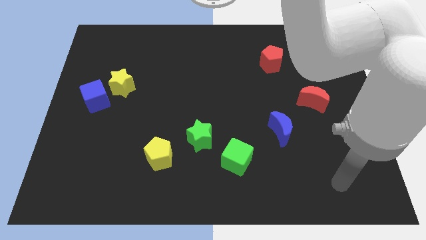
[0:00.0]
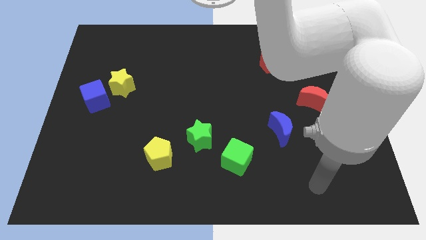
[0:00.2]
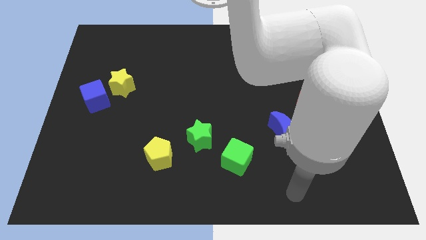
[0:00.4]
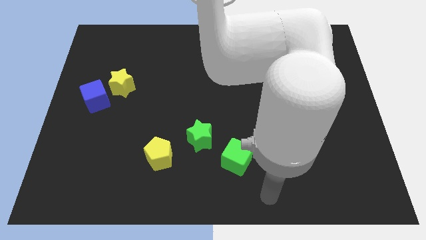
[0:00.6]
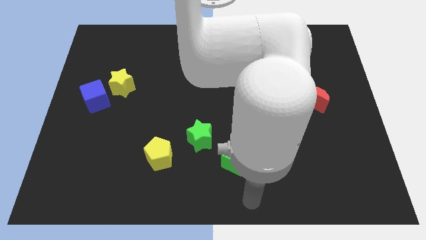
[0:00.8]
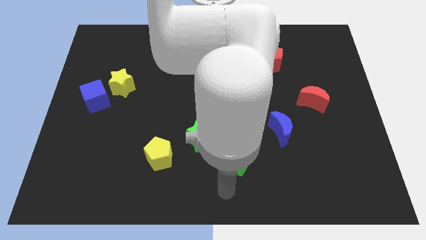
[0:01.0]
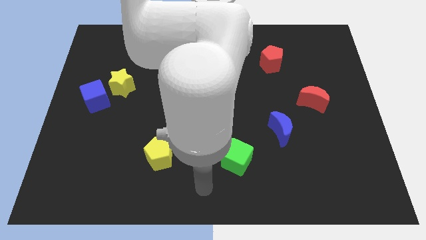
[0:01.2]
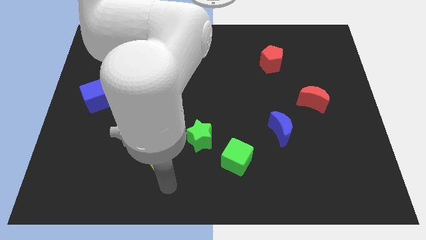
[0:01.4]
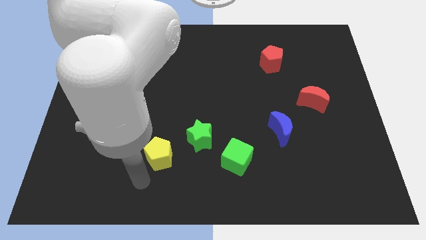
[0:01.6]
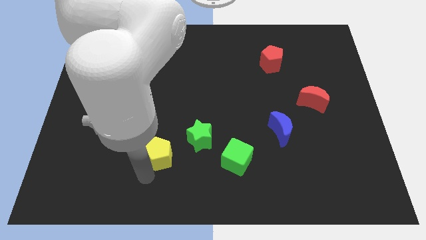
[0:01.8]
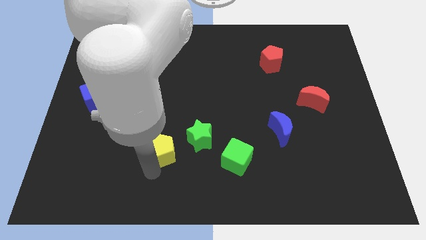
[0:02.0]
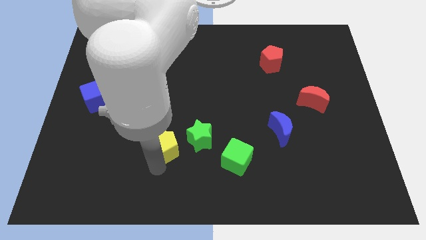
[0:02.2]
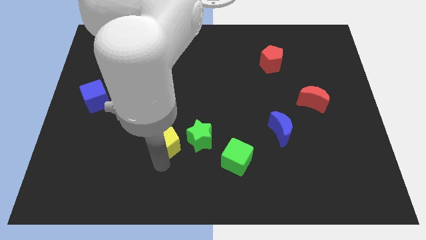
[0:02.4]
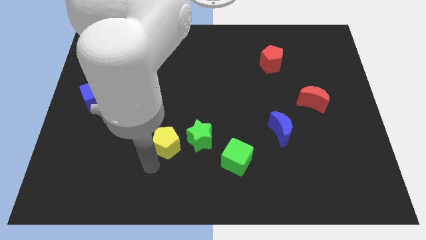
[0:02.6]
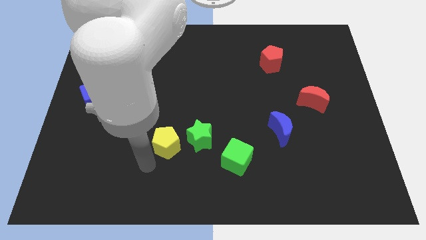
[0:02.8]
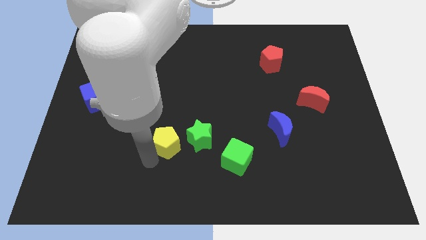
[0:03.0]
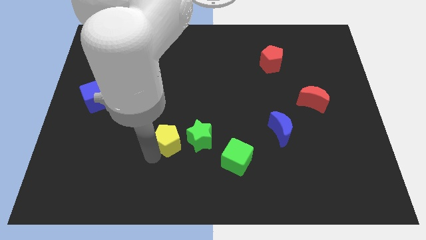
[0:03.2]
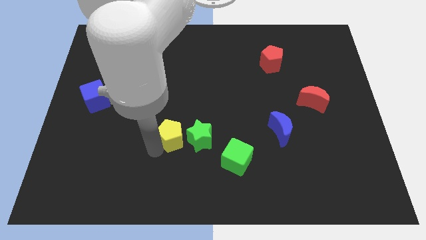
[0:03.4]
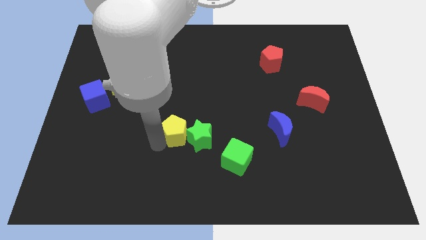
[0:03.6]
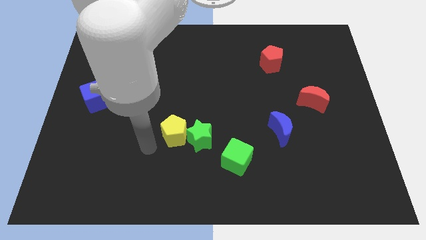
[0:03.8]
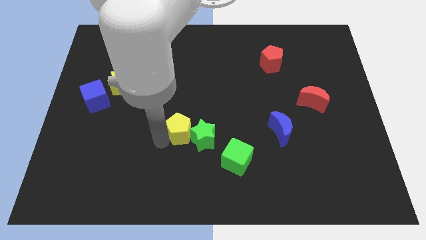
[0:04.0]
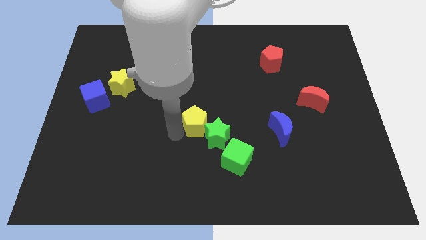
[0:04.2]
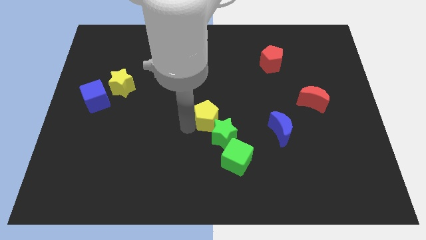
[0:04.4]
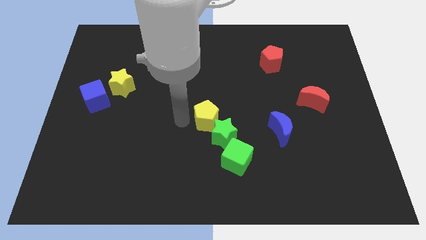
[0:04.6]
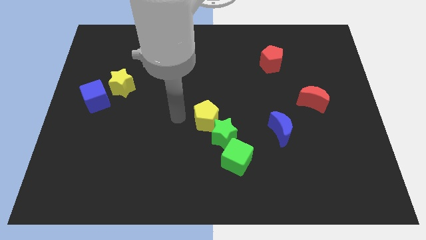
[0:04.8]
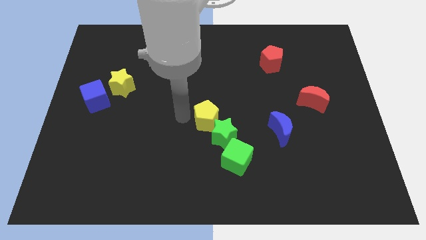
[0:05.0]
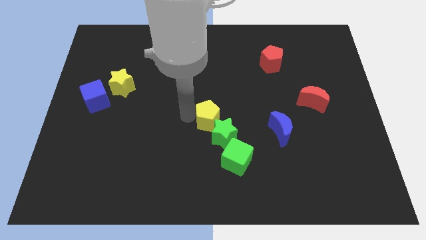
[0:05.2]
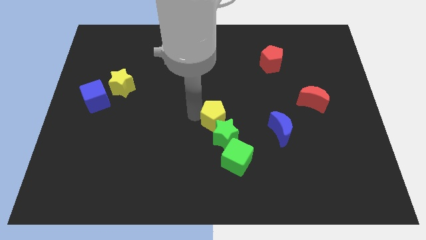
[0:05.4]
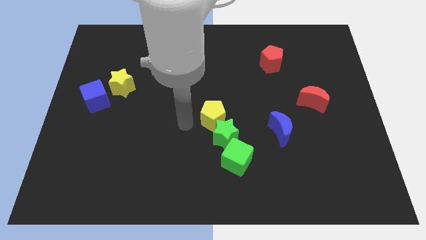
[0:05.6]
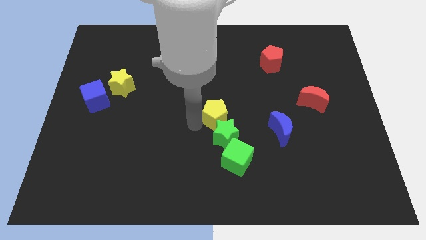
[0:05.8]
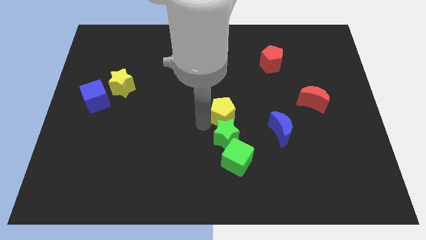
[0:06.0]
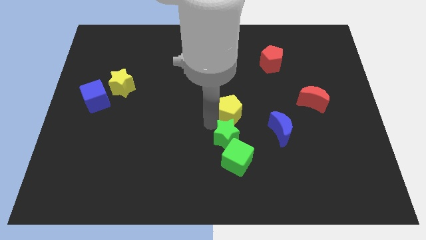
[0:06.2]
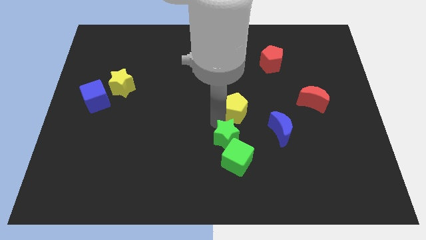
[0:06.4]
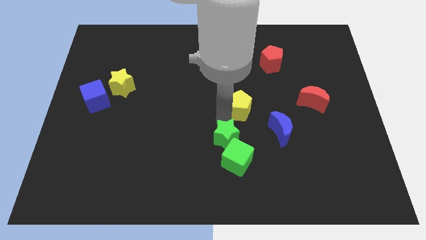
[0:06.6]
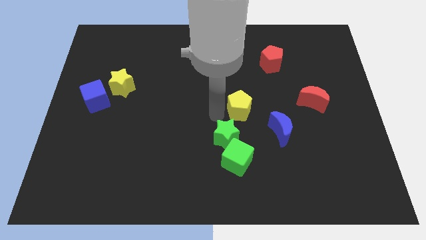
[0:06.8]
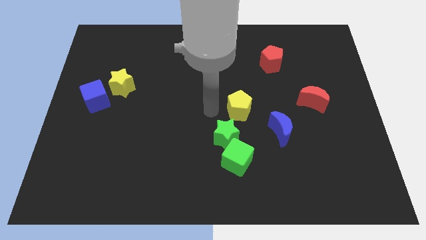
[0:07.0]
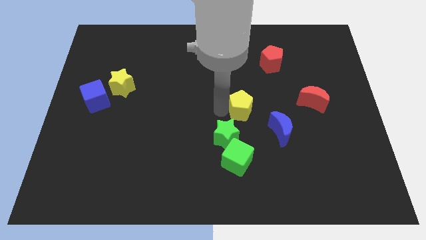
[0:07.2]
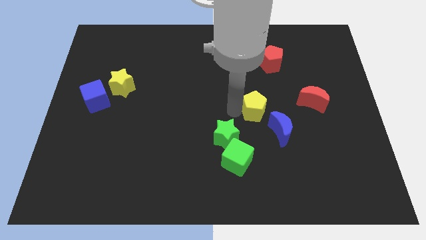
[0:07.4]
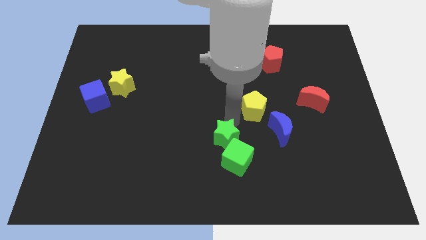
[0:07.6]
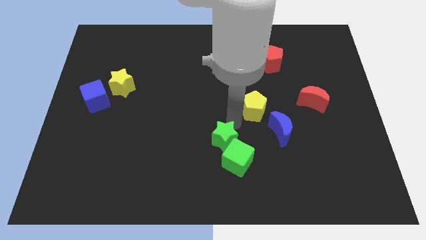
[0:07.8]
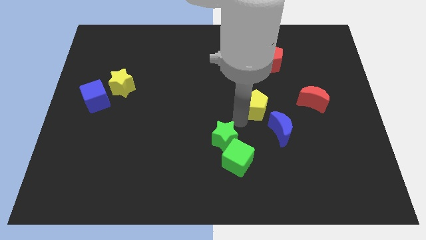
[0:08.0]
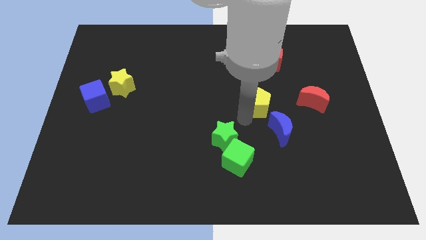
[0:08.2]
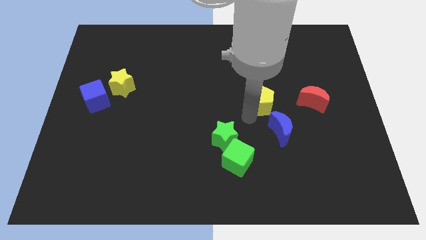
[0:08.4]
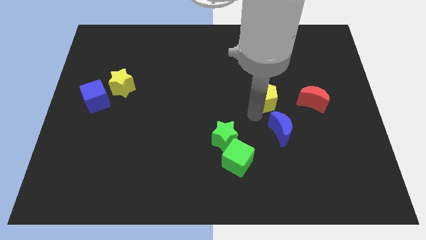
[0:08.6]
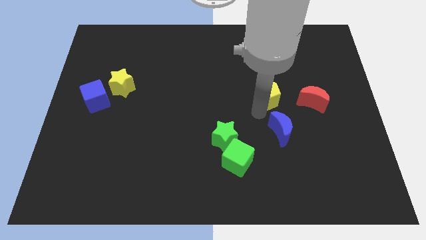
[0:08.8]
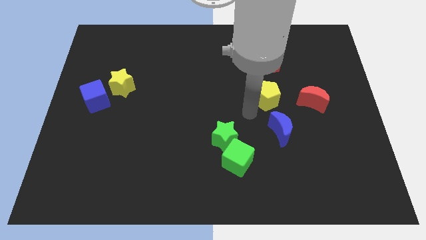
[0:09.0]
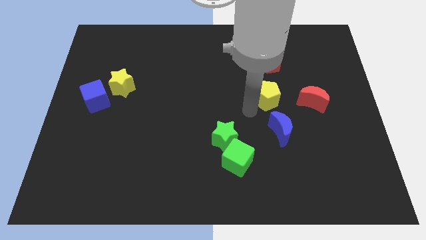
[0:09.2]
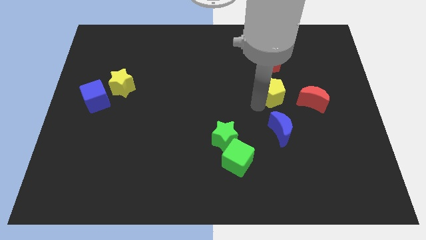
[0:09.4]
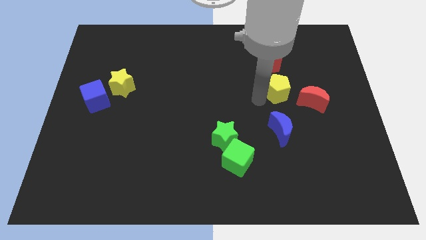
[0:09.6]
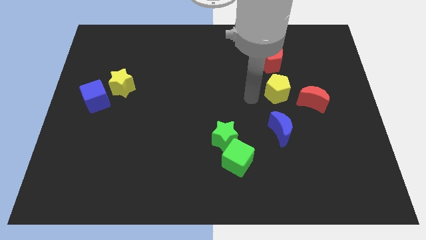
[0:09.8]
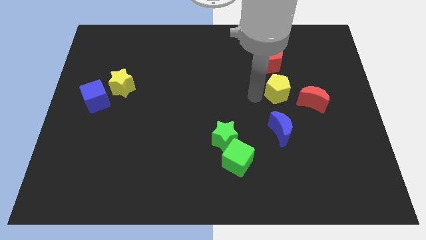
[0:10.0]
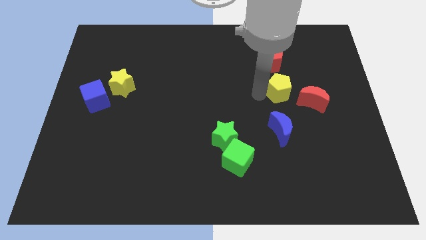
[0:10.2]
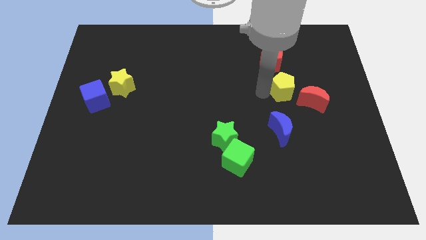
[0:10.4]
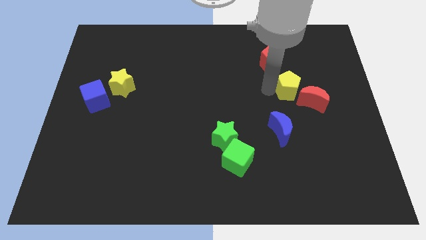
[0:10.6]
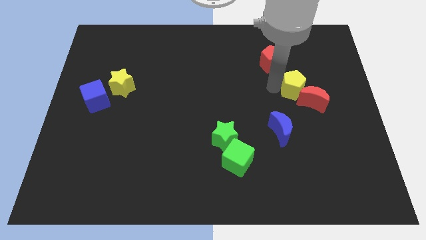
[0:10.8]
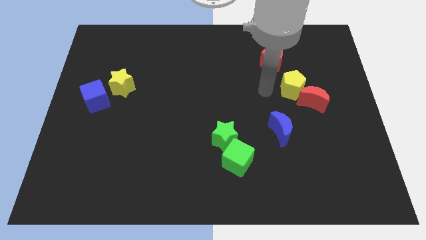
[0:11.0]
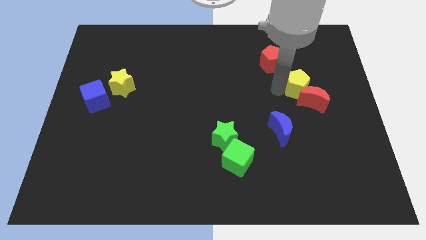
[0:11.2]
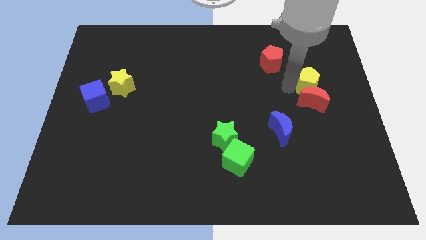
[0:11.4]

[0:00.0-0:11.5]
slide the yellow pentagon to the top right side of the red moon

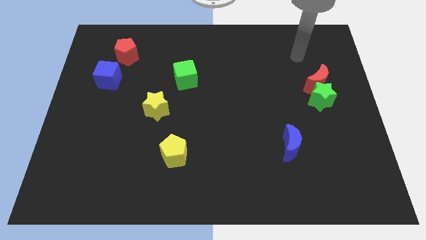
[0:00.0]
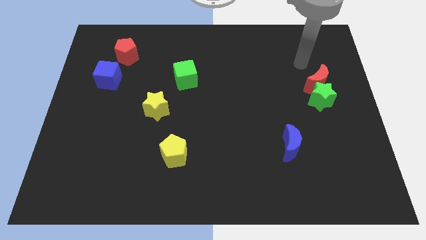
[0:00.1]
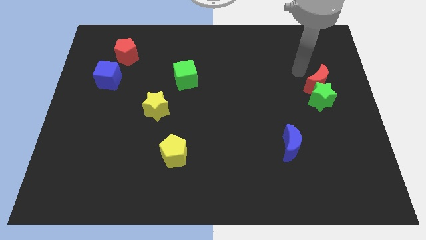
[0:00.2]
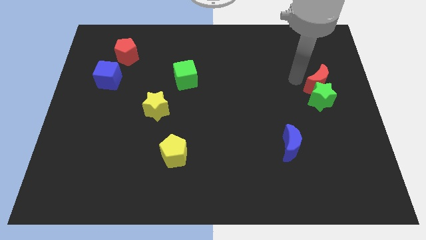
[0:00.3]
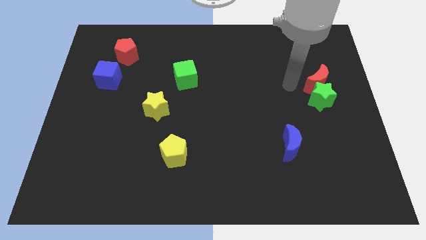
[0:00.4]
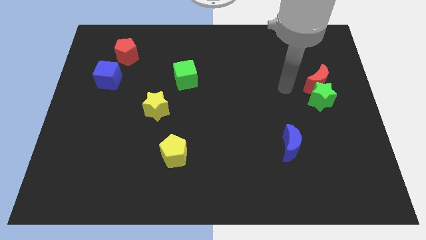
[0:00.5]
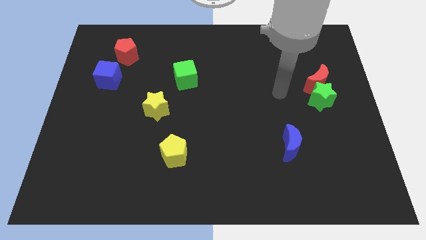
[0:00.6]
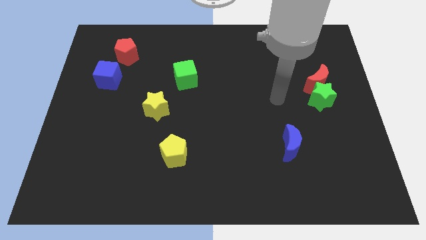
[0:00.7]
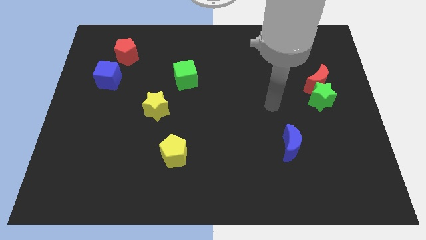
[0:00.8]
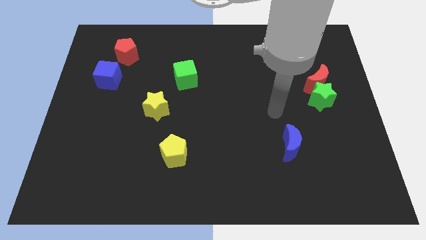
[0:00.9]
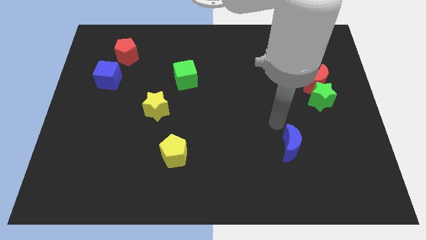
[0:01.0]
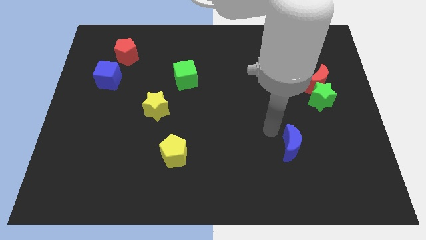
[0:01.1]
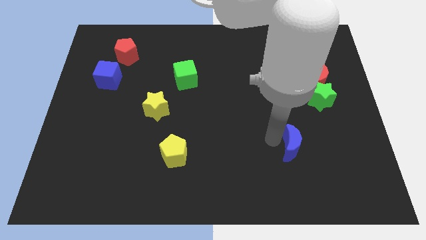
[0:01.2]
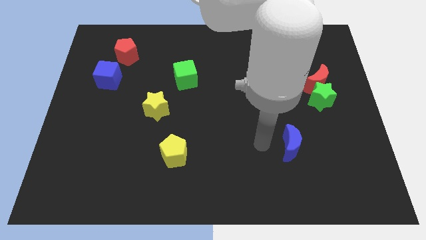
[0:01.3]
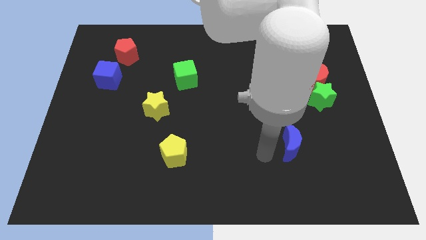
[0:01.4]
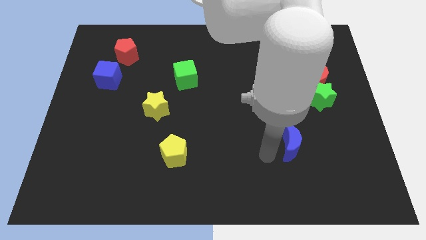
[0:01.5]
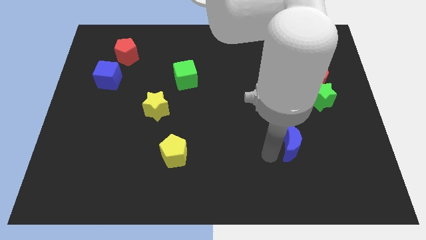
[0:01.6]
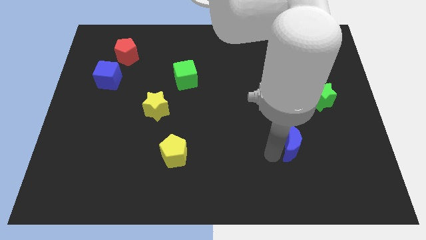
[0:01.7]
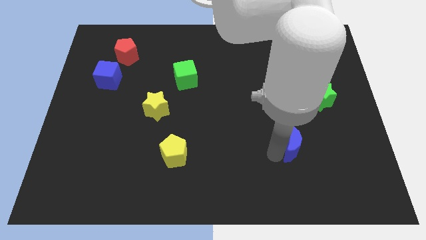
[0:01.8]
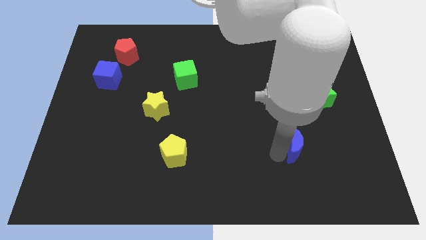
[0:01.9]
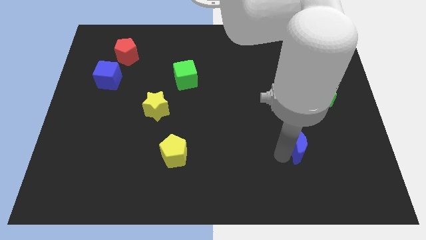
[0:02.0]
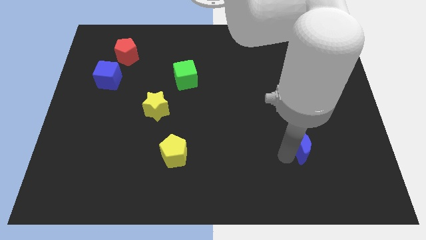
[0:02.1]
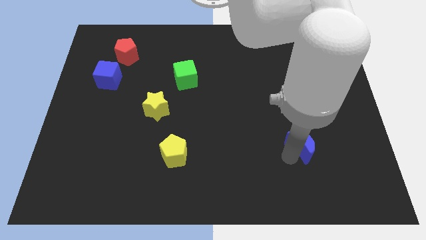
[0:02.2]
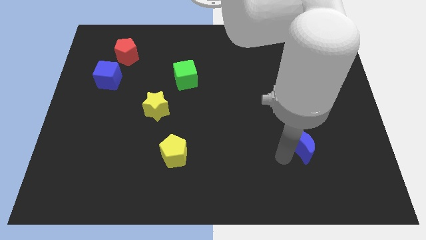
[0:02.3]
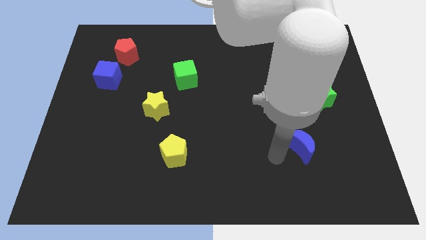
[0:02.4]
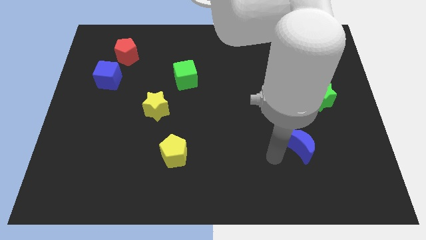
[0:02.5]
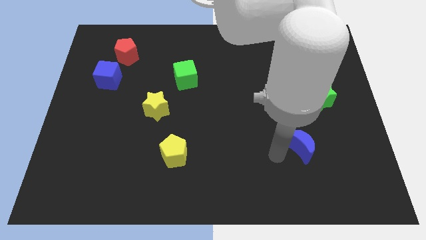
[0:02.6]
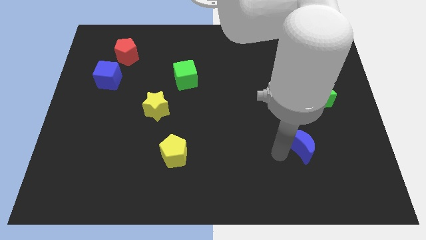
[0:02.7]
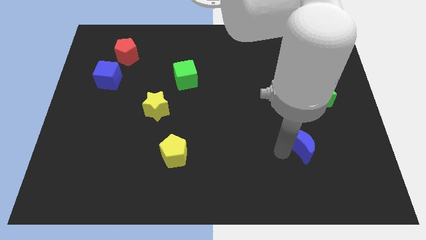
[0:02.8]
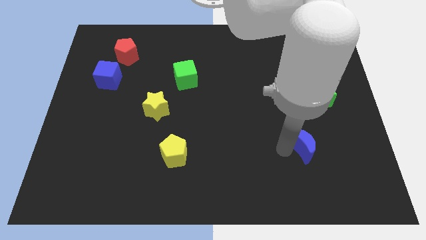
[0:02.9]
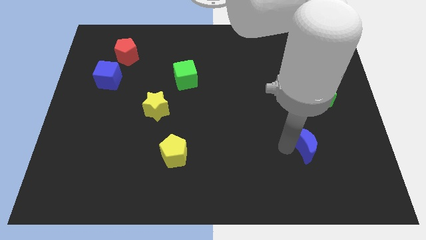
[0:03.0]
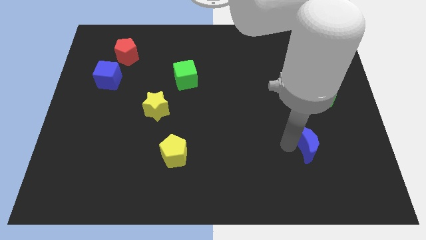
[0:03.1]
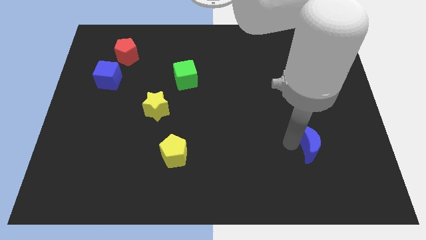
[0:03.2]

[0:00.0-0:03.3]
push the blue moon below the green star

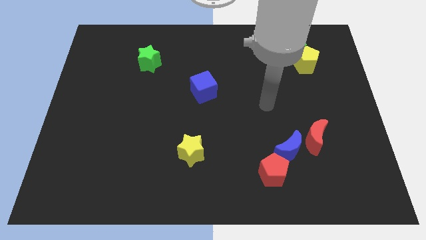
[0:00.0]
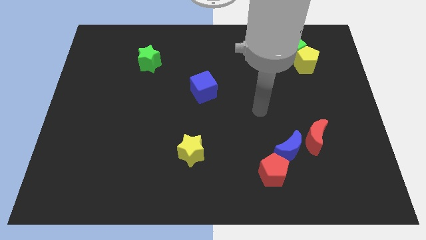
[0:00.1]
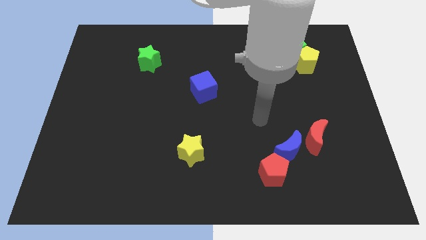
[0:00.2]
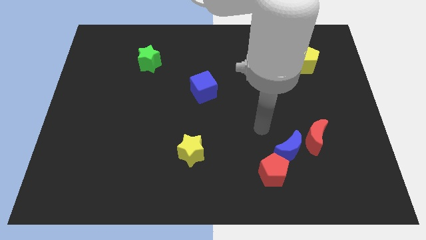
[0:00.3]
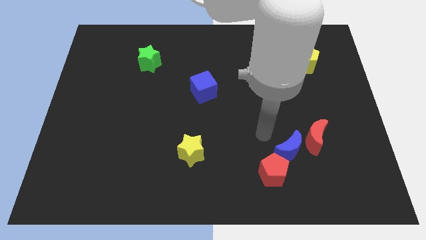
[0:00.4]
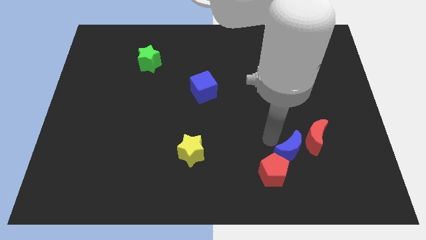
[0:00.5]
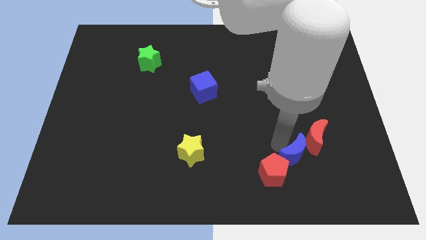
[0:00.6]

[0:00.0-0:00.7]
push the blue moon to the right side of the red pentagon
